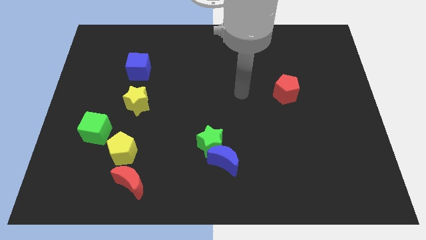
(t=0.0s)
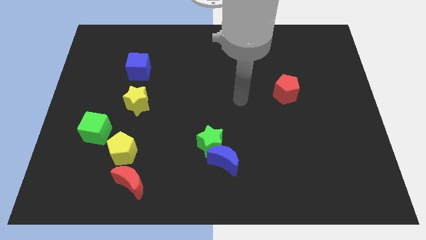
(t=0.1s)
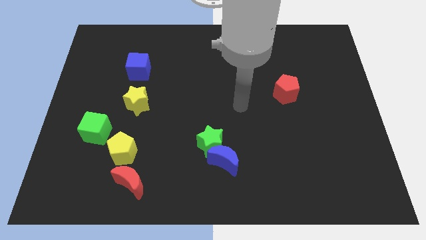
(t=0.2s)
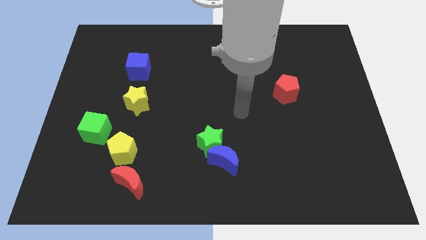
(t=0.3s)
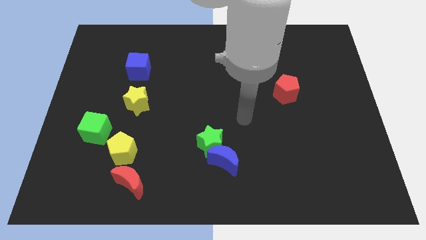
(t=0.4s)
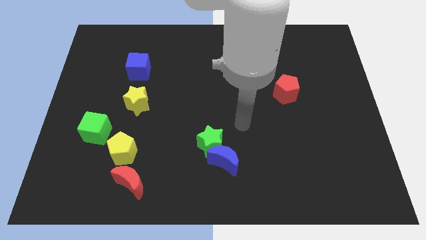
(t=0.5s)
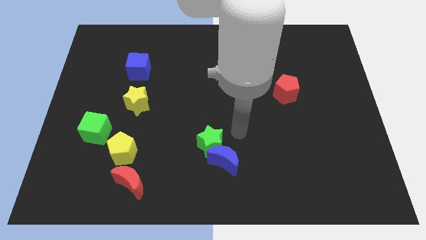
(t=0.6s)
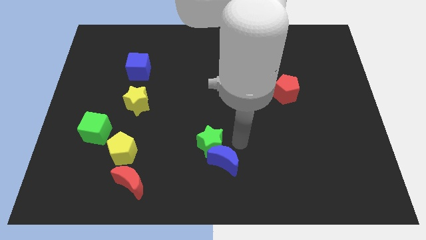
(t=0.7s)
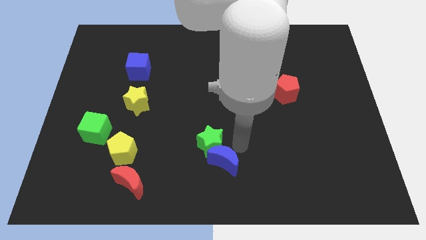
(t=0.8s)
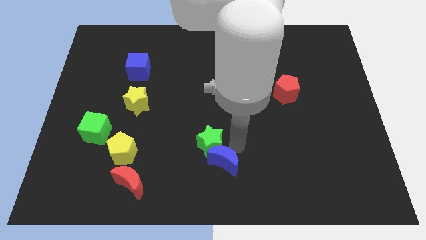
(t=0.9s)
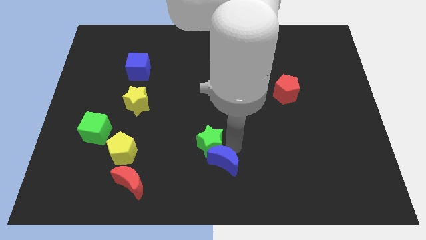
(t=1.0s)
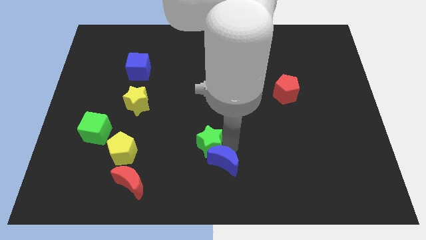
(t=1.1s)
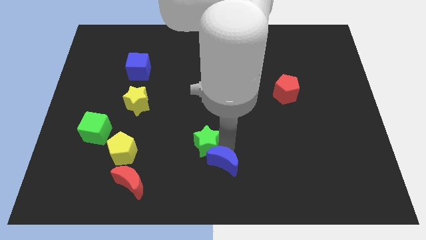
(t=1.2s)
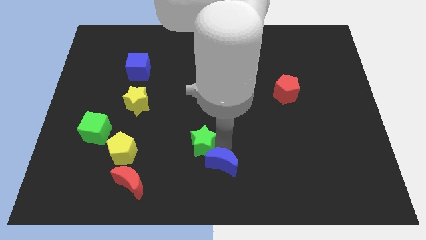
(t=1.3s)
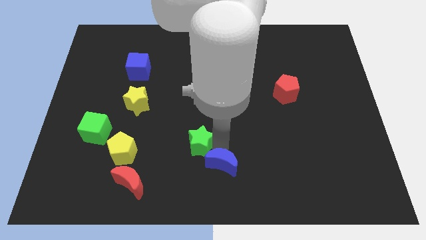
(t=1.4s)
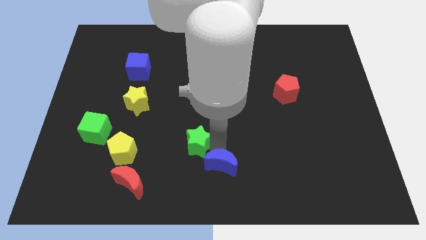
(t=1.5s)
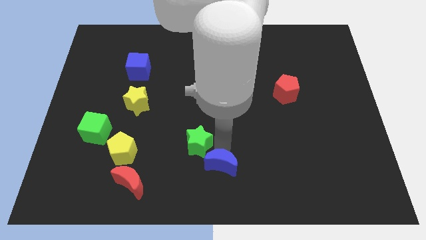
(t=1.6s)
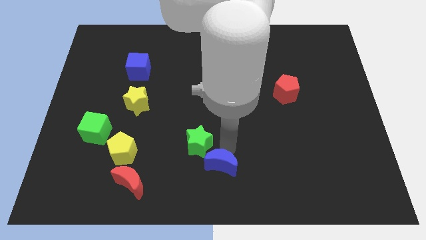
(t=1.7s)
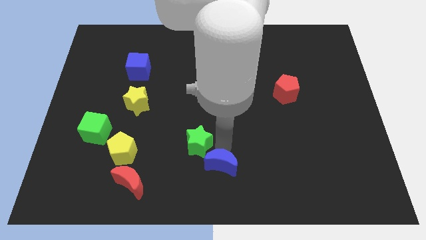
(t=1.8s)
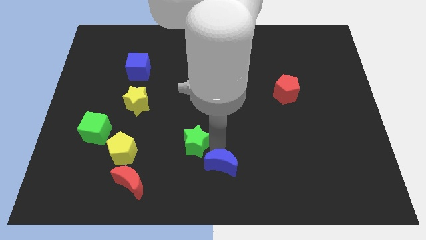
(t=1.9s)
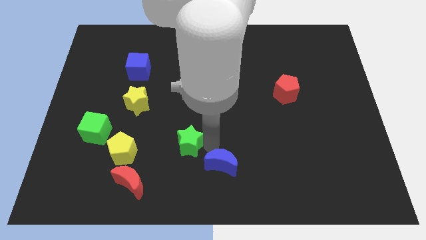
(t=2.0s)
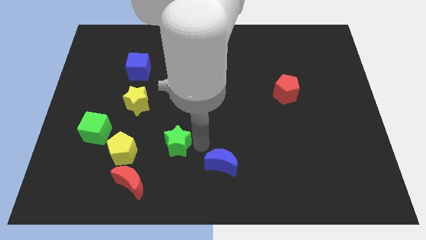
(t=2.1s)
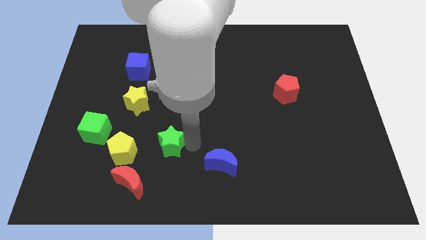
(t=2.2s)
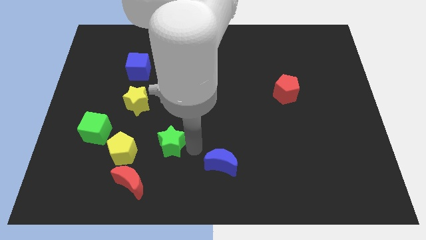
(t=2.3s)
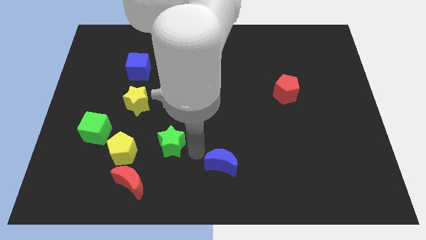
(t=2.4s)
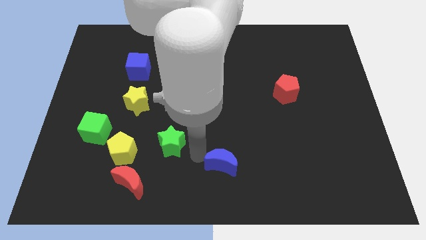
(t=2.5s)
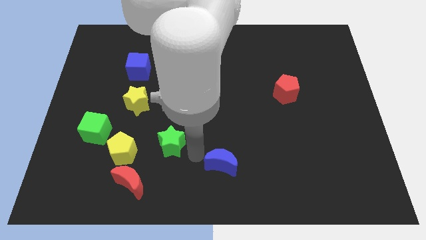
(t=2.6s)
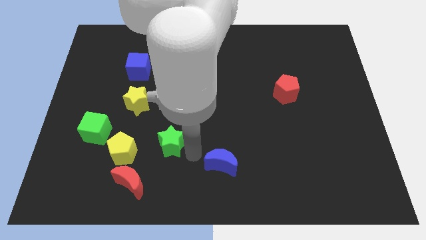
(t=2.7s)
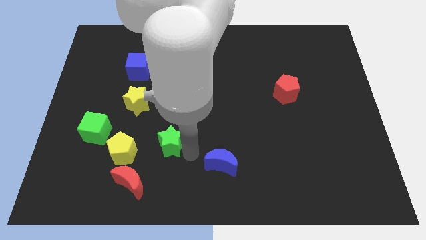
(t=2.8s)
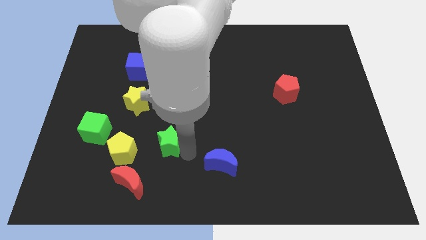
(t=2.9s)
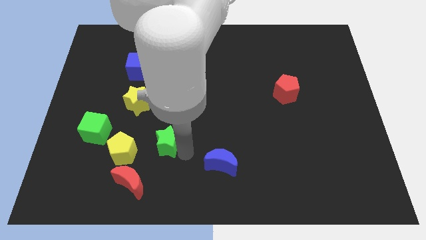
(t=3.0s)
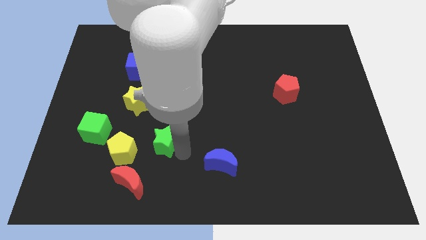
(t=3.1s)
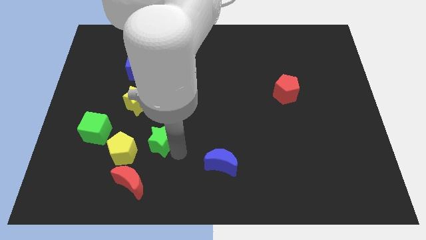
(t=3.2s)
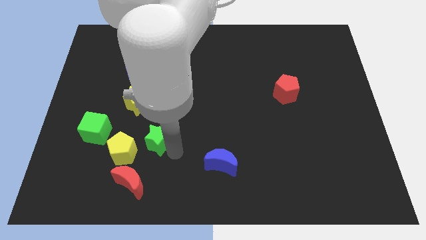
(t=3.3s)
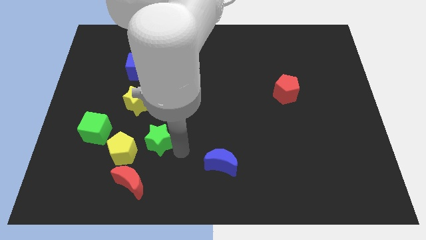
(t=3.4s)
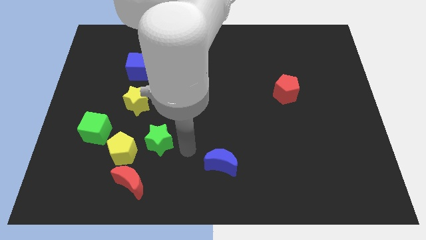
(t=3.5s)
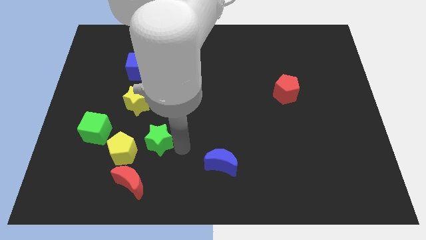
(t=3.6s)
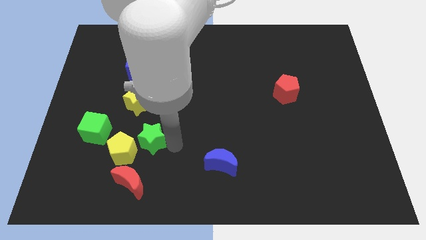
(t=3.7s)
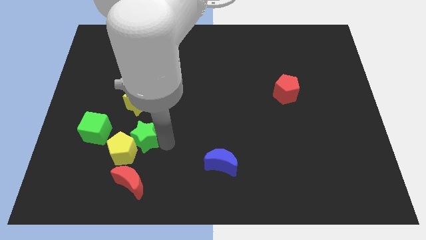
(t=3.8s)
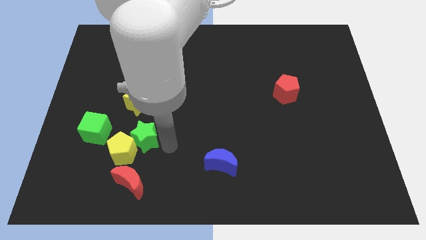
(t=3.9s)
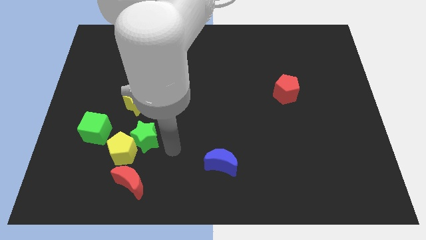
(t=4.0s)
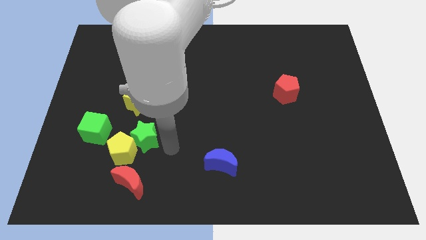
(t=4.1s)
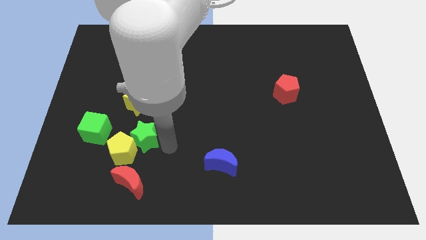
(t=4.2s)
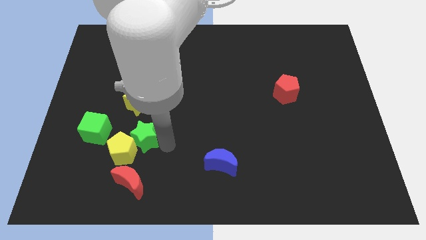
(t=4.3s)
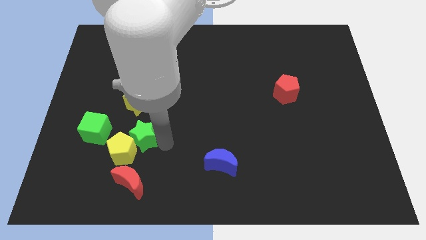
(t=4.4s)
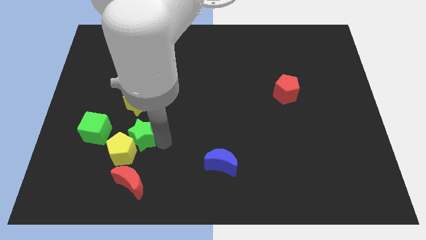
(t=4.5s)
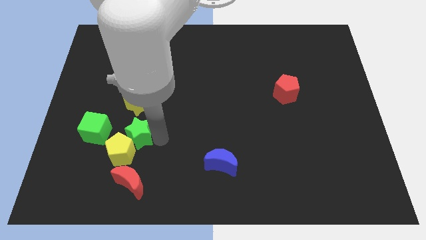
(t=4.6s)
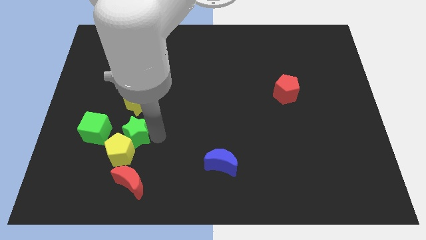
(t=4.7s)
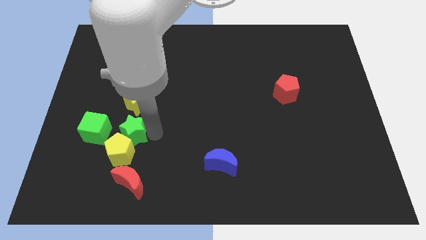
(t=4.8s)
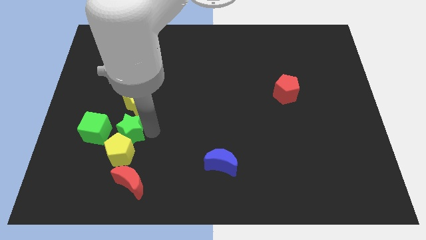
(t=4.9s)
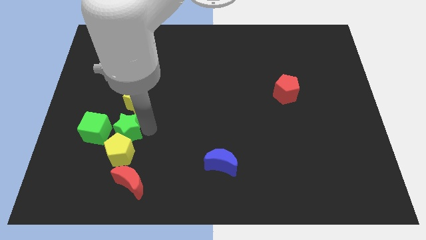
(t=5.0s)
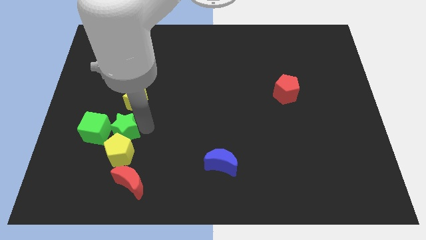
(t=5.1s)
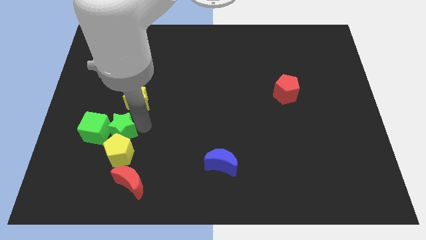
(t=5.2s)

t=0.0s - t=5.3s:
put the green star to the green cube

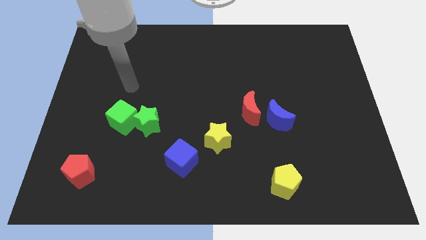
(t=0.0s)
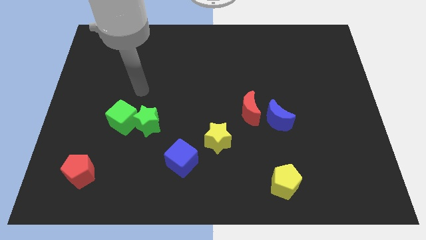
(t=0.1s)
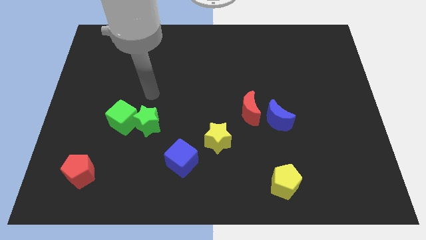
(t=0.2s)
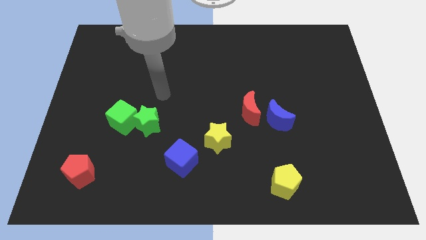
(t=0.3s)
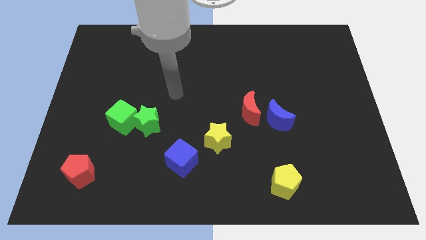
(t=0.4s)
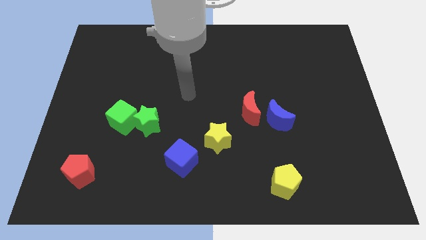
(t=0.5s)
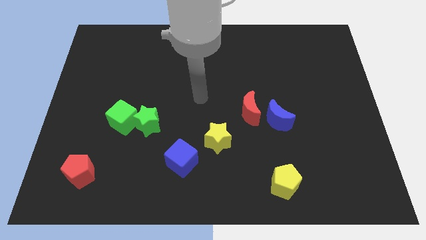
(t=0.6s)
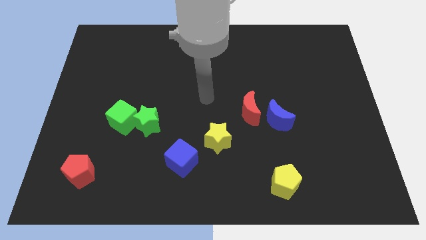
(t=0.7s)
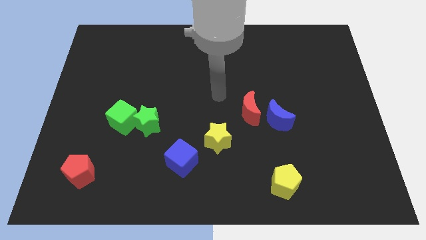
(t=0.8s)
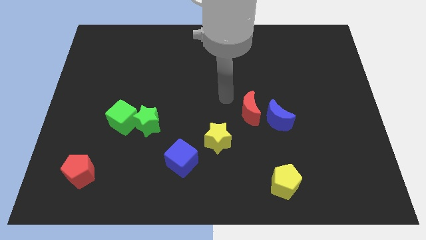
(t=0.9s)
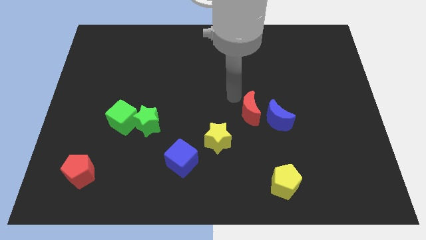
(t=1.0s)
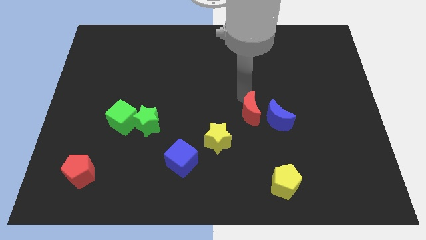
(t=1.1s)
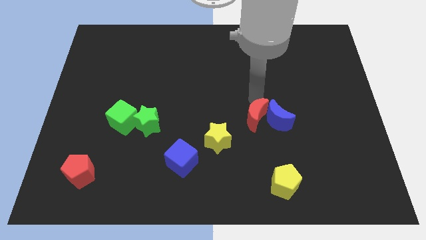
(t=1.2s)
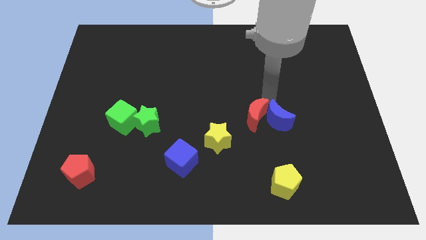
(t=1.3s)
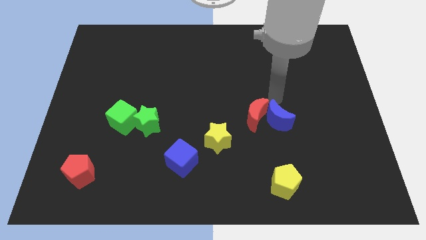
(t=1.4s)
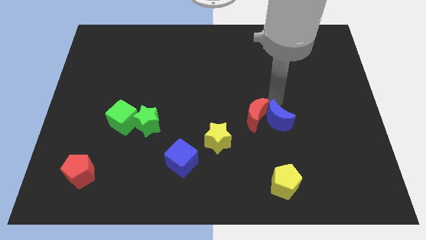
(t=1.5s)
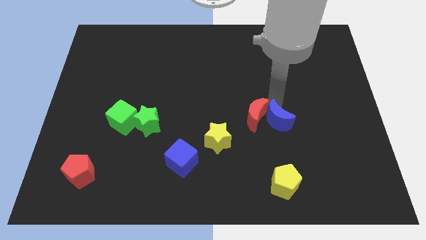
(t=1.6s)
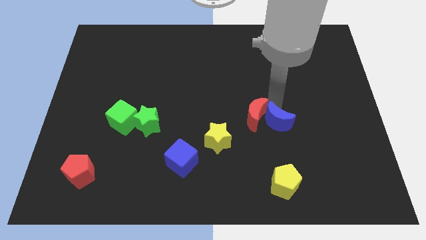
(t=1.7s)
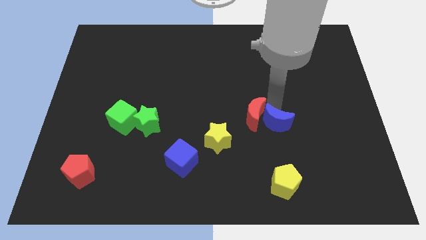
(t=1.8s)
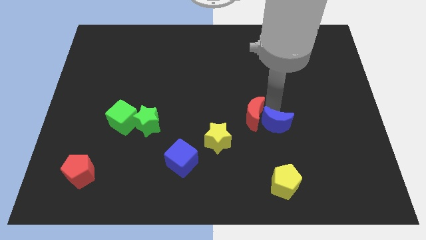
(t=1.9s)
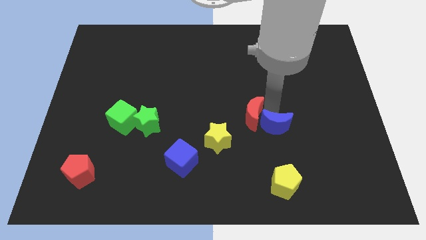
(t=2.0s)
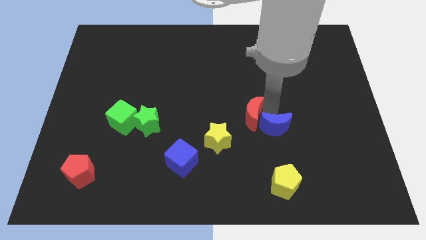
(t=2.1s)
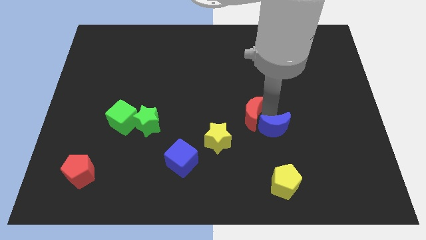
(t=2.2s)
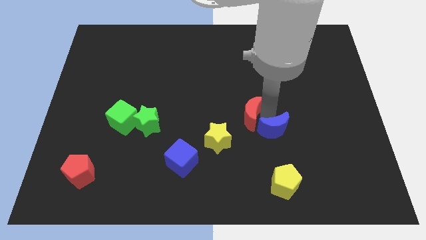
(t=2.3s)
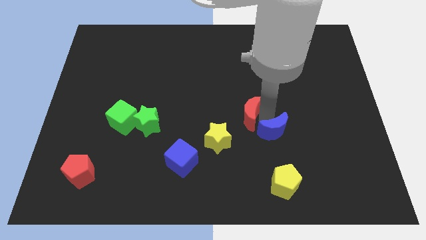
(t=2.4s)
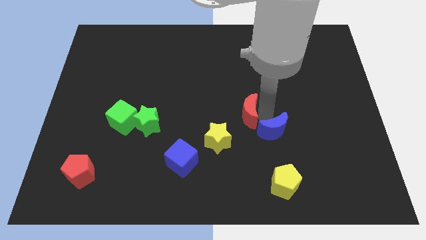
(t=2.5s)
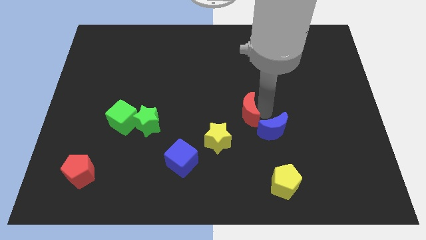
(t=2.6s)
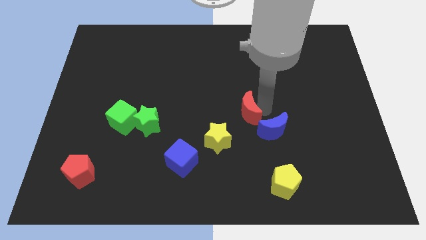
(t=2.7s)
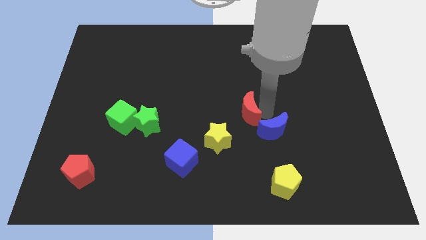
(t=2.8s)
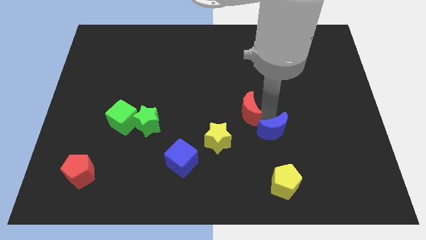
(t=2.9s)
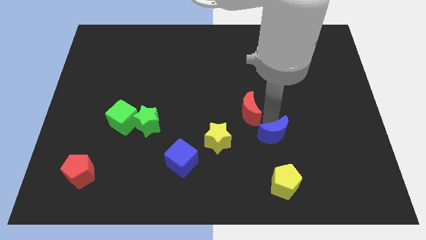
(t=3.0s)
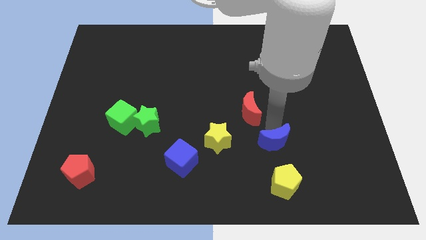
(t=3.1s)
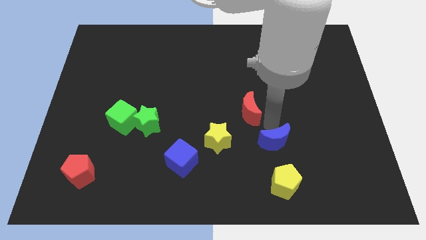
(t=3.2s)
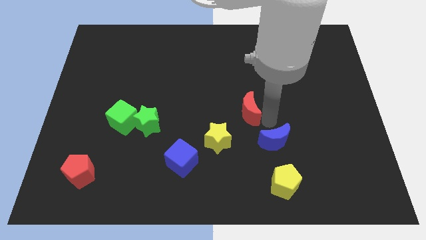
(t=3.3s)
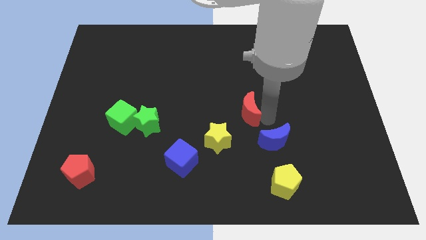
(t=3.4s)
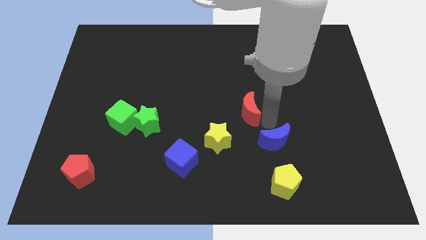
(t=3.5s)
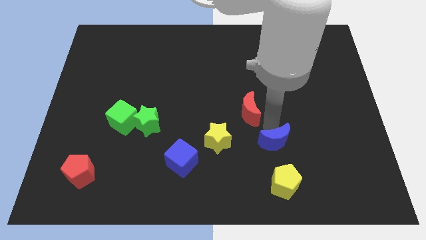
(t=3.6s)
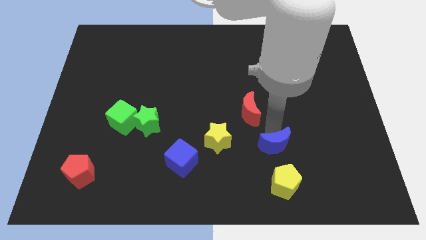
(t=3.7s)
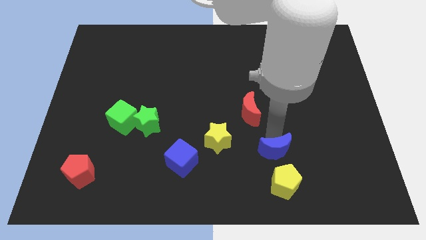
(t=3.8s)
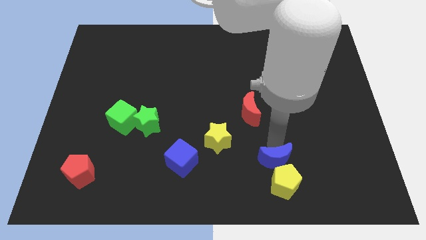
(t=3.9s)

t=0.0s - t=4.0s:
put the blue moon close to the yellow pentagon
